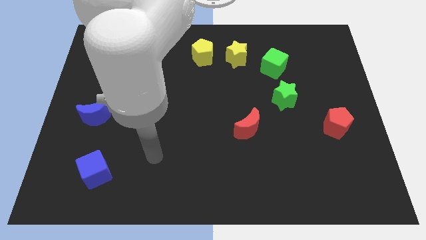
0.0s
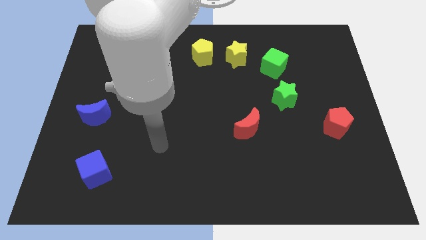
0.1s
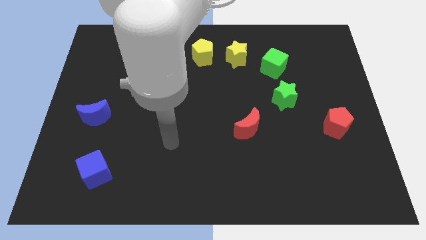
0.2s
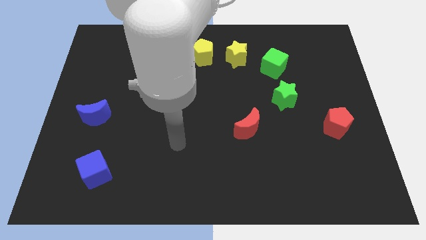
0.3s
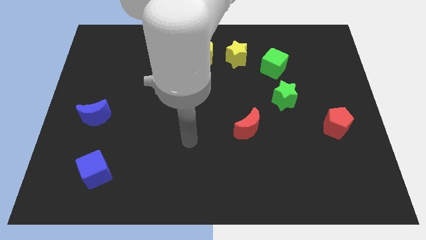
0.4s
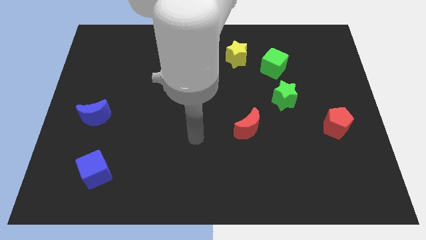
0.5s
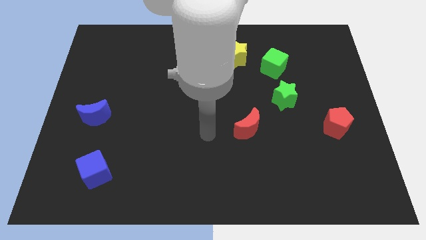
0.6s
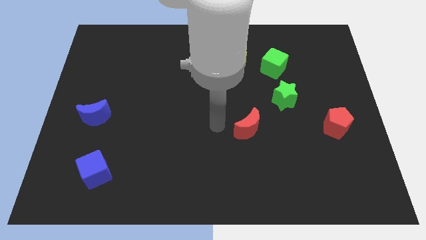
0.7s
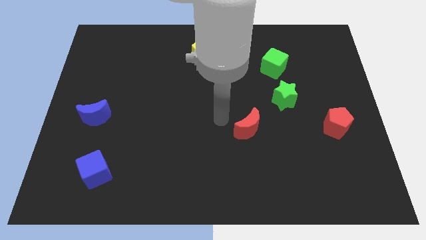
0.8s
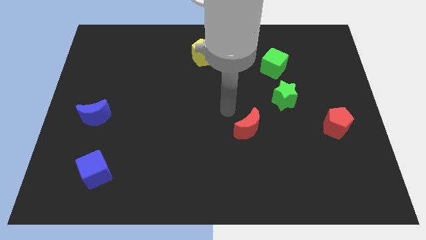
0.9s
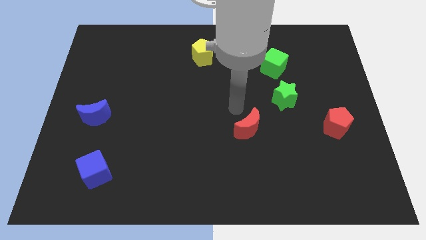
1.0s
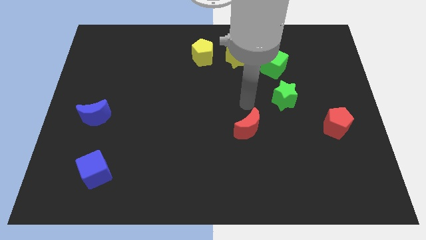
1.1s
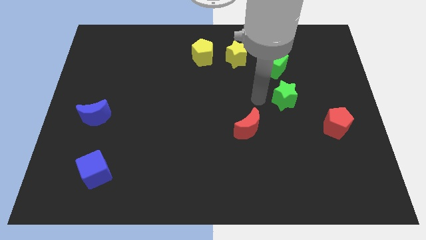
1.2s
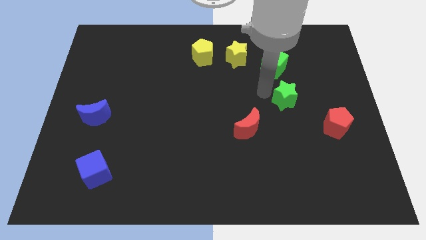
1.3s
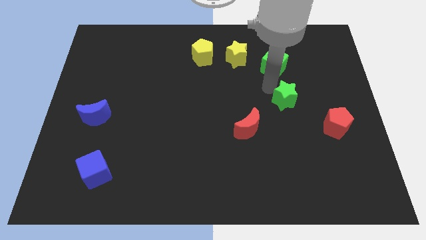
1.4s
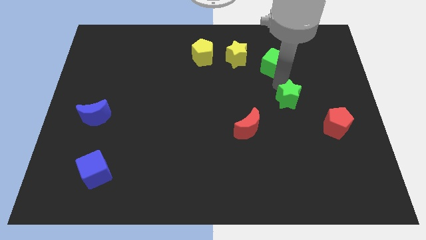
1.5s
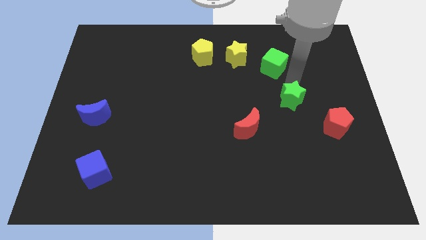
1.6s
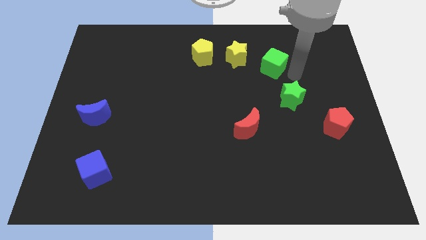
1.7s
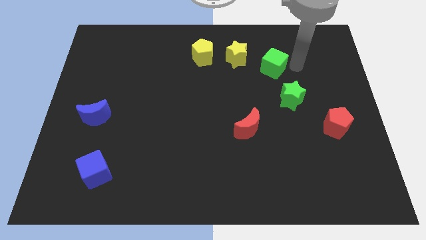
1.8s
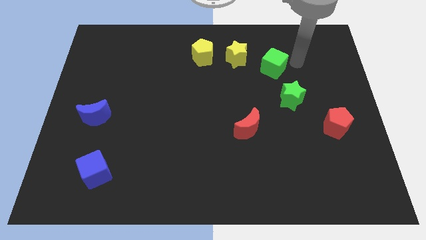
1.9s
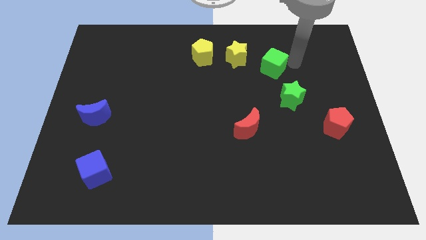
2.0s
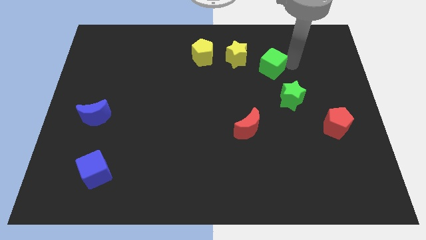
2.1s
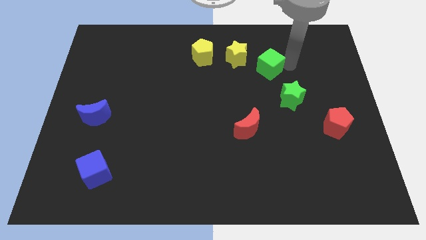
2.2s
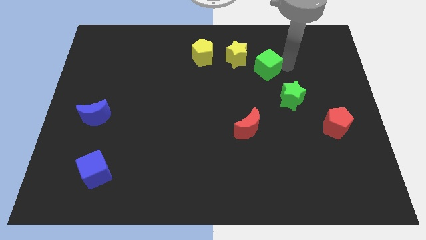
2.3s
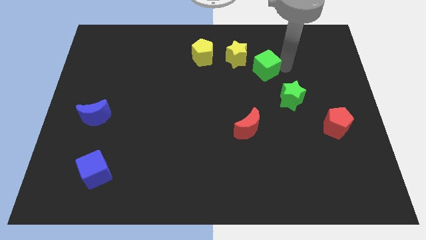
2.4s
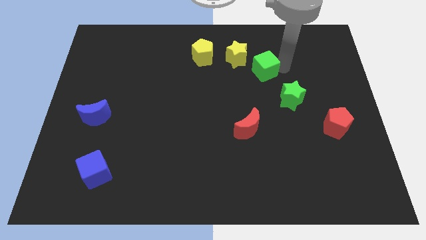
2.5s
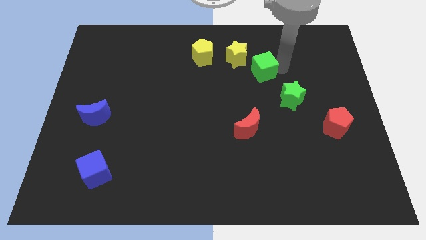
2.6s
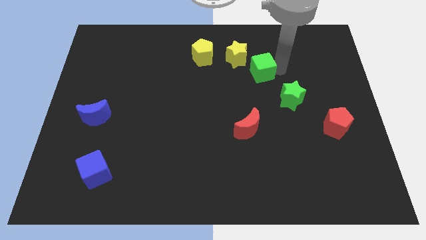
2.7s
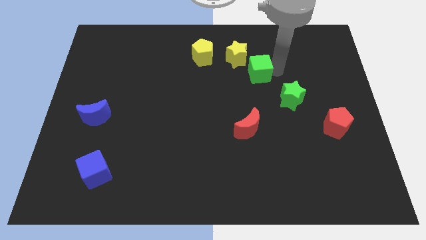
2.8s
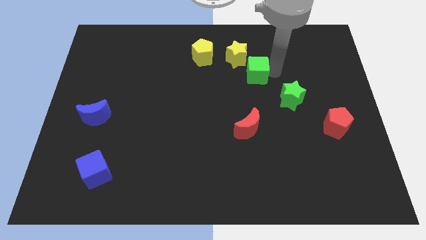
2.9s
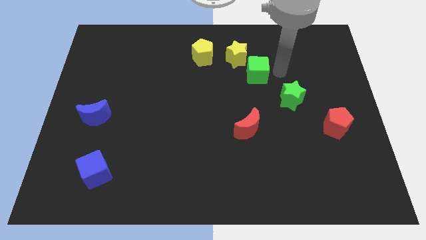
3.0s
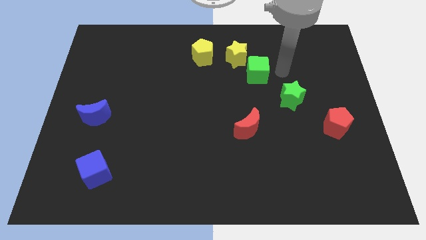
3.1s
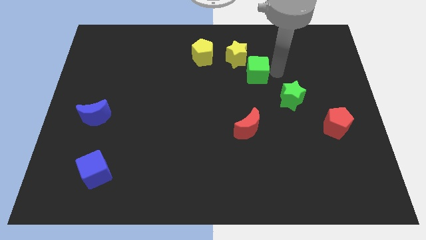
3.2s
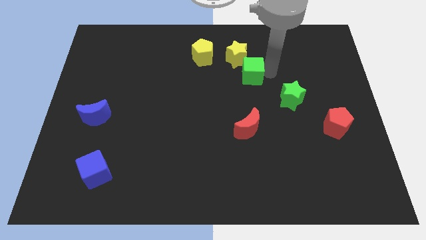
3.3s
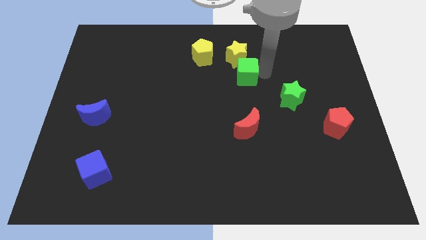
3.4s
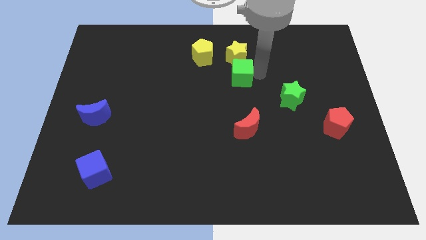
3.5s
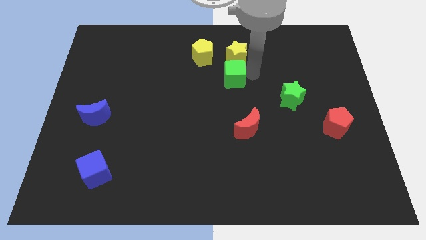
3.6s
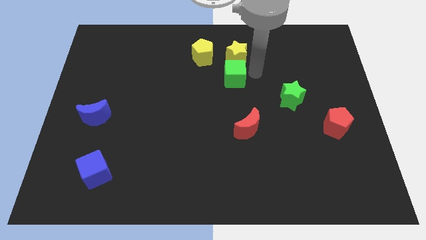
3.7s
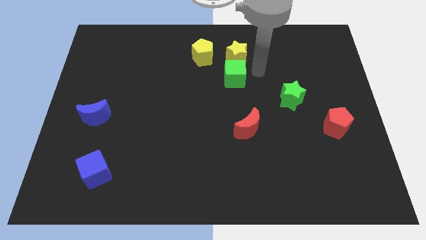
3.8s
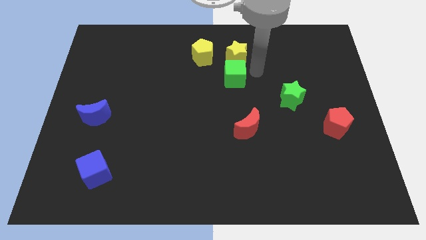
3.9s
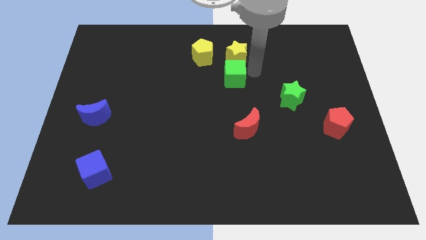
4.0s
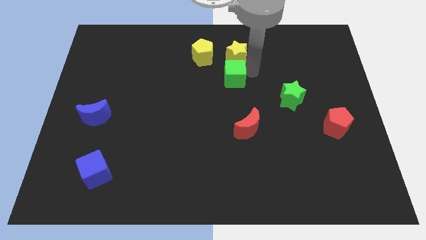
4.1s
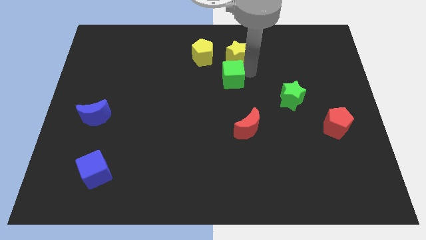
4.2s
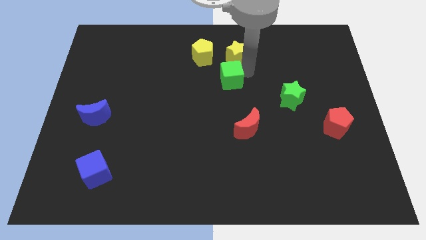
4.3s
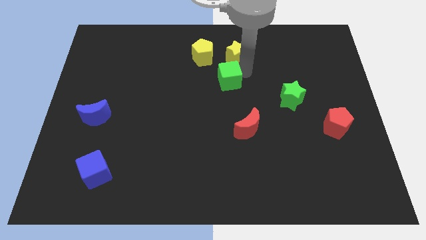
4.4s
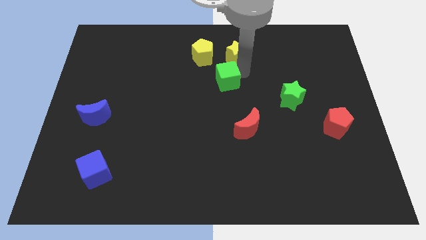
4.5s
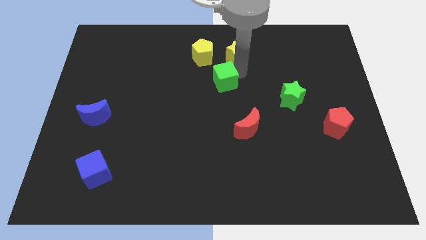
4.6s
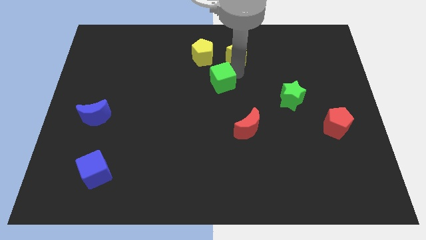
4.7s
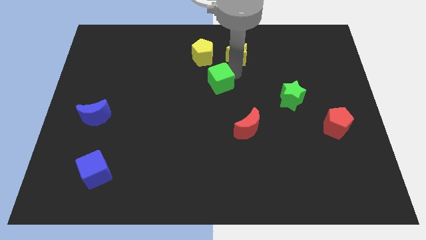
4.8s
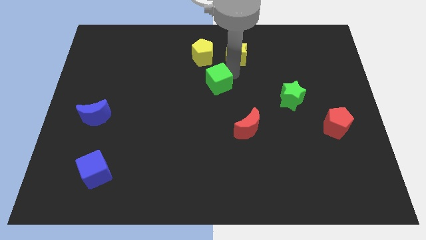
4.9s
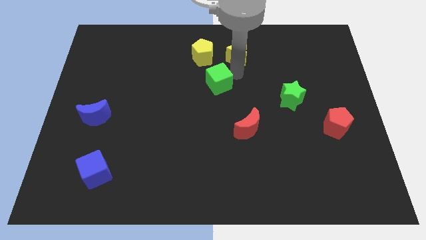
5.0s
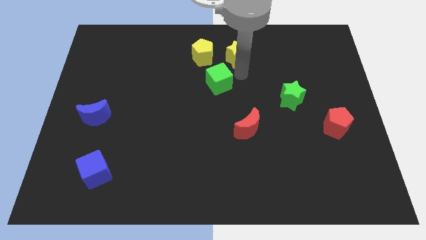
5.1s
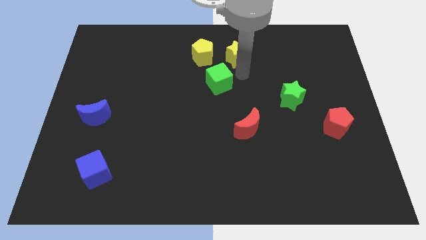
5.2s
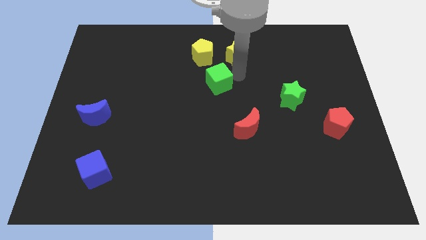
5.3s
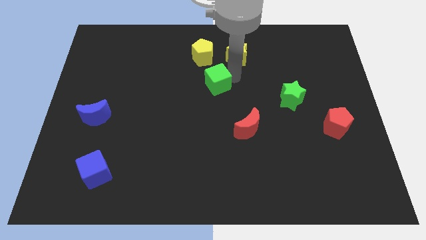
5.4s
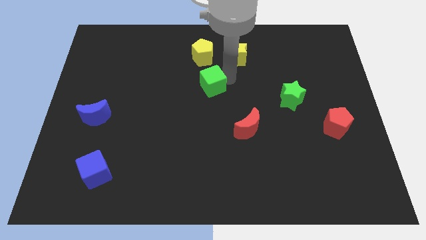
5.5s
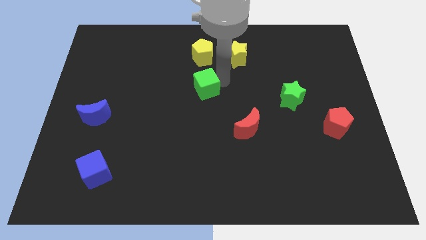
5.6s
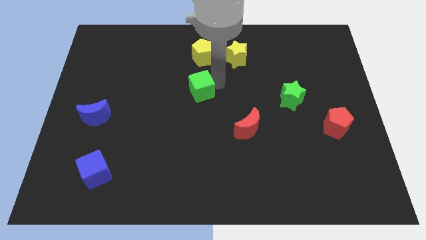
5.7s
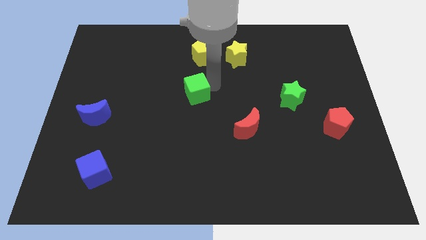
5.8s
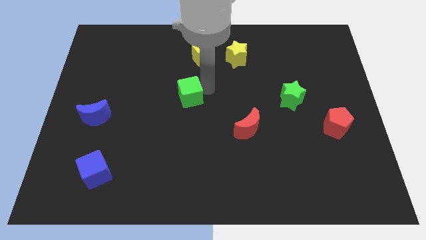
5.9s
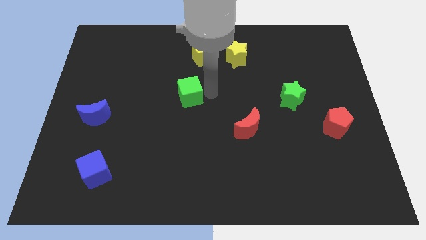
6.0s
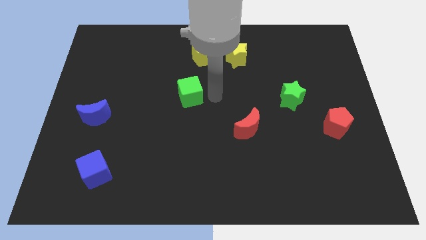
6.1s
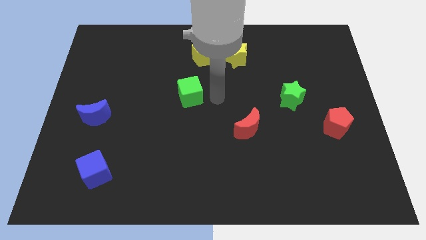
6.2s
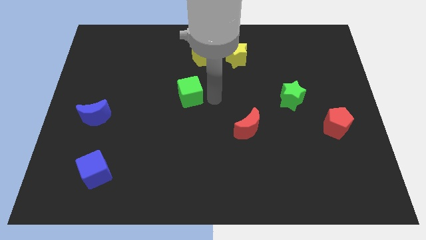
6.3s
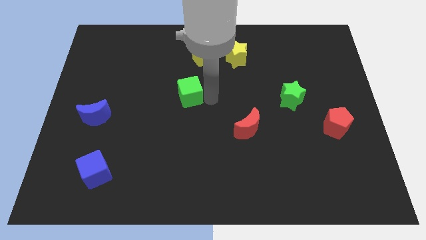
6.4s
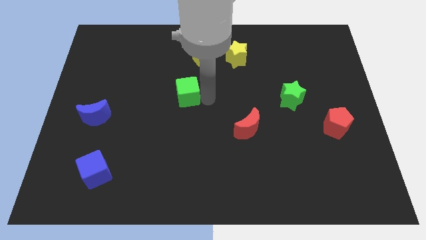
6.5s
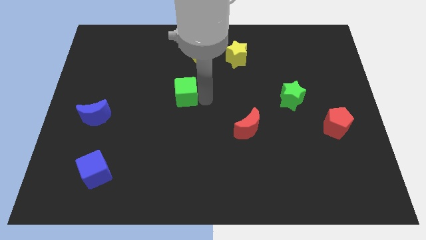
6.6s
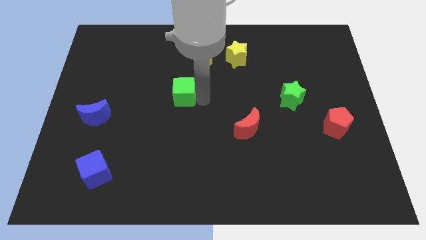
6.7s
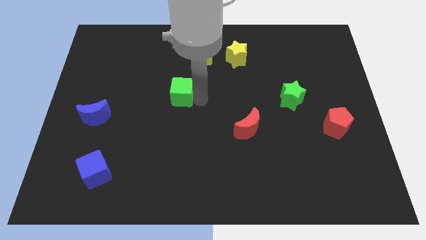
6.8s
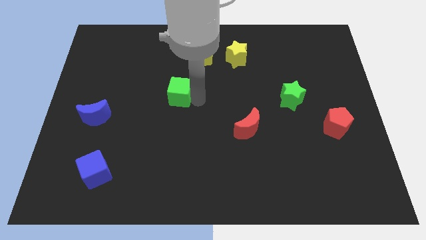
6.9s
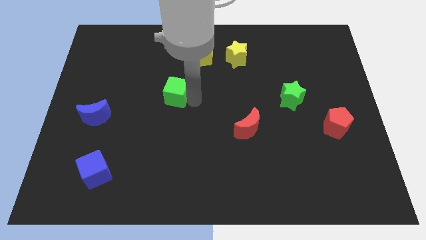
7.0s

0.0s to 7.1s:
push the green cube left

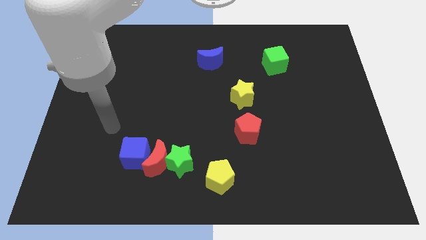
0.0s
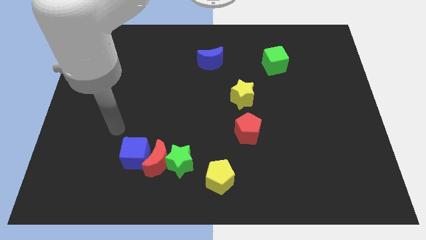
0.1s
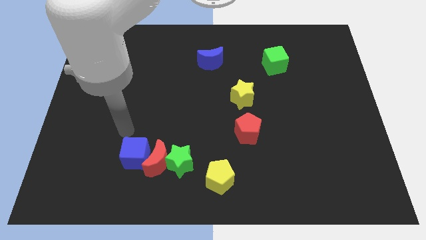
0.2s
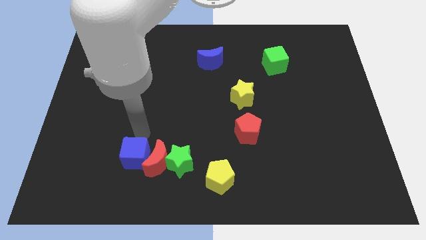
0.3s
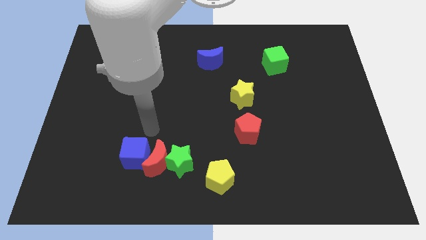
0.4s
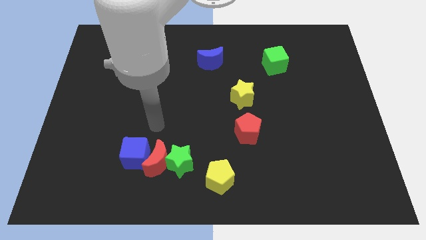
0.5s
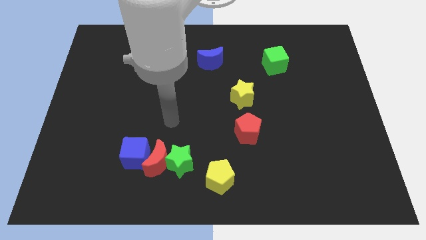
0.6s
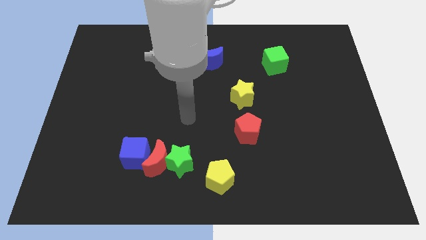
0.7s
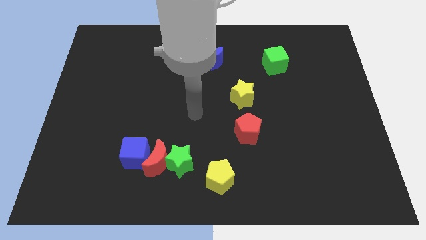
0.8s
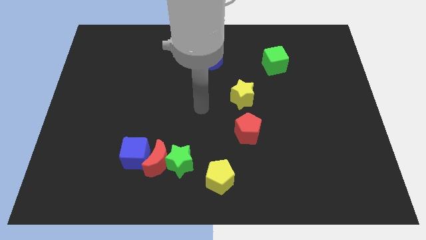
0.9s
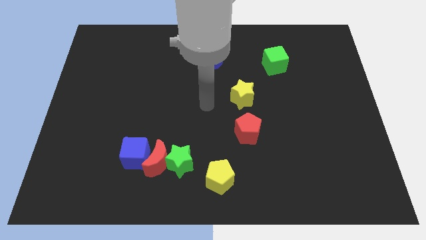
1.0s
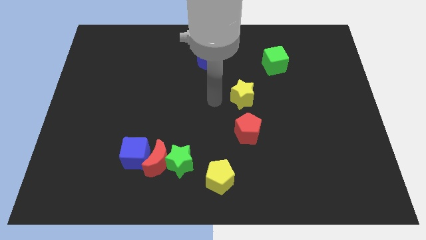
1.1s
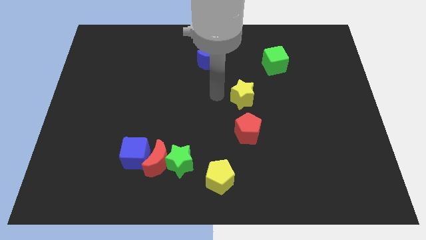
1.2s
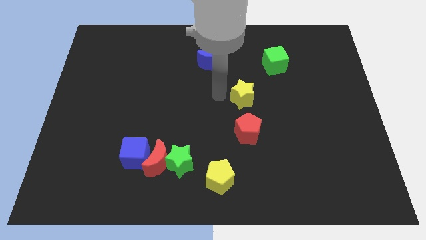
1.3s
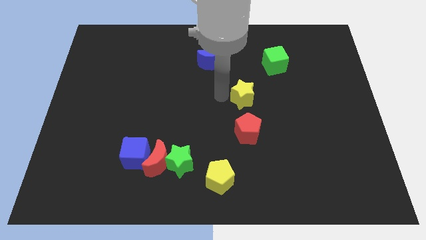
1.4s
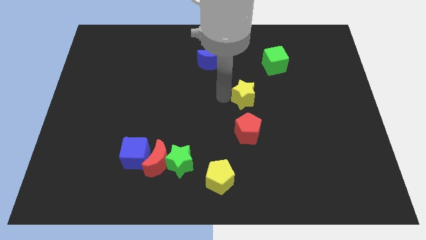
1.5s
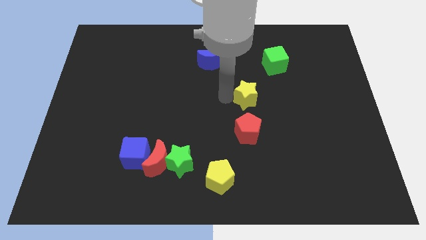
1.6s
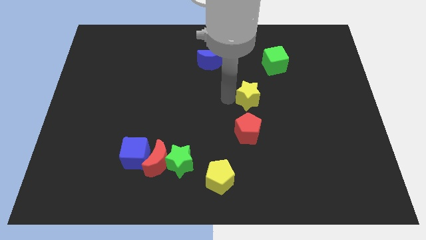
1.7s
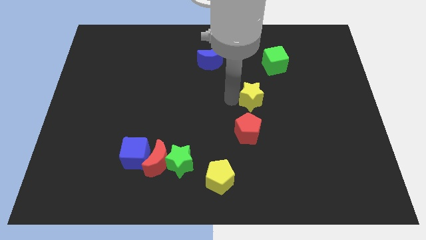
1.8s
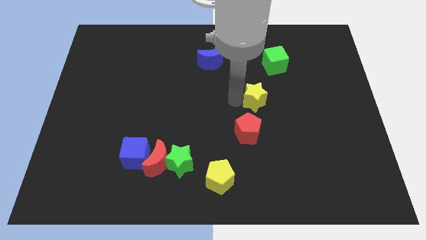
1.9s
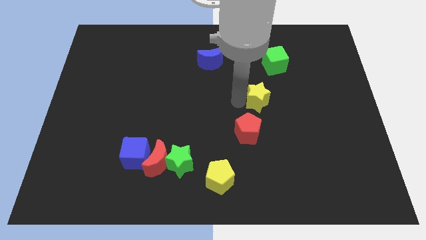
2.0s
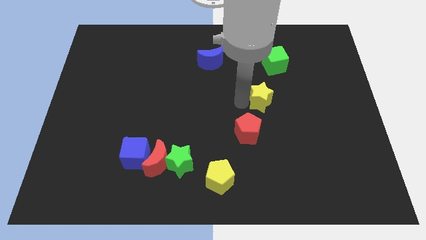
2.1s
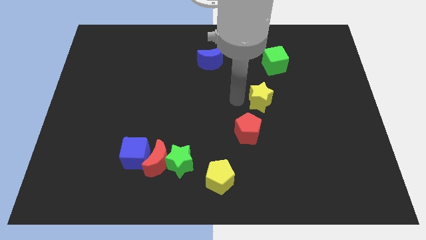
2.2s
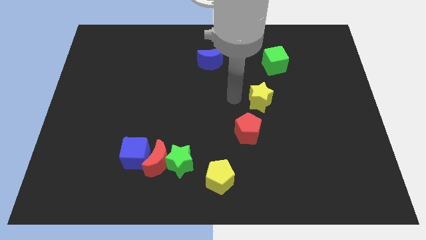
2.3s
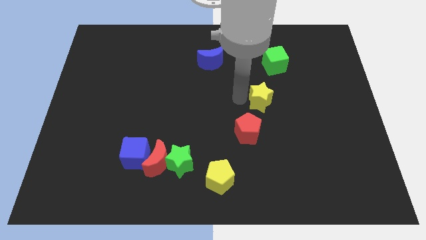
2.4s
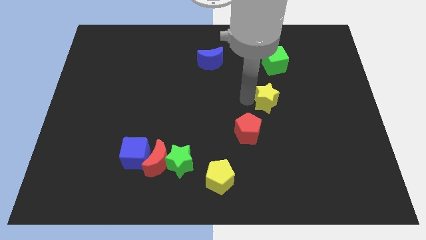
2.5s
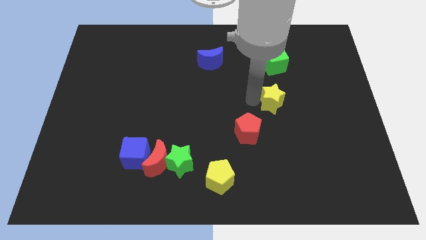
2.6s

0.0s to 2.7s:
push the yellow star a little to the right
